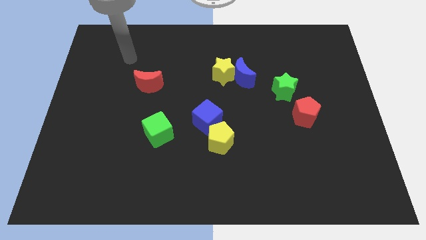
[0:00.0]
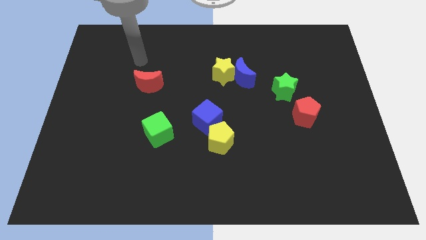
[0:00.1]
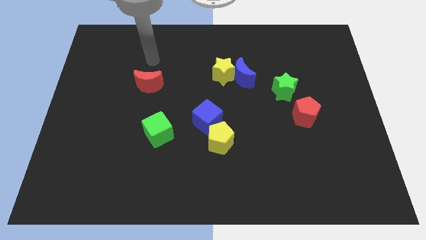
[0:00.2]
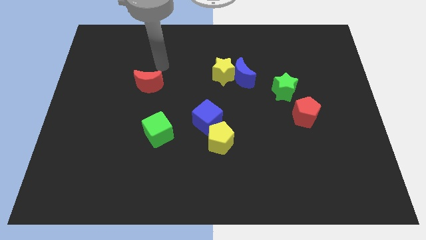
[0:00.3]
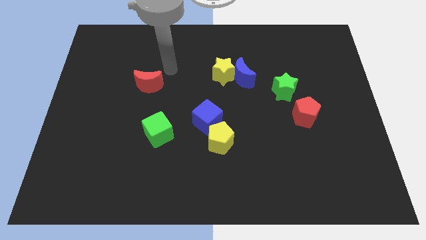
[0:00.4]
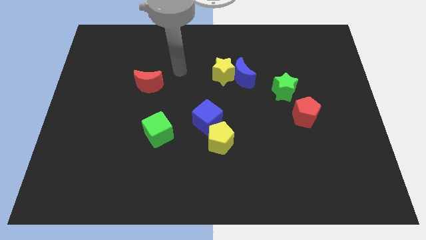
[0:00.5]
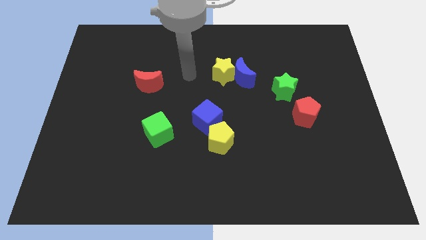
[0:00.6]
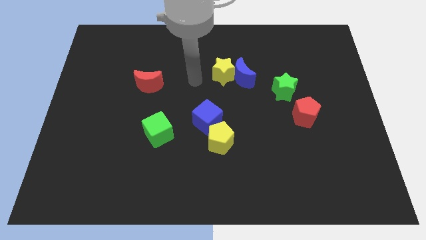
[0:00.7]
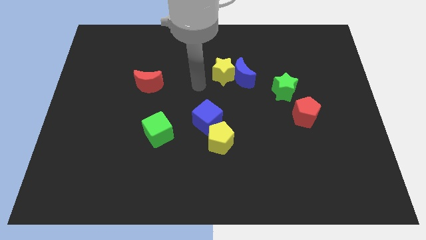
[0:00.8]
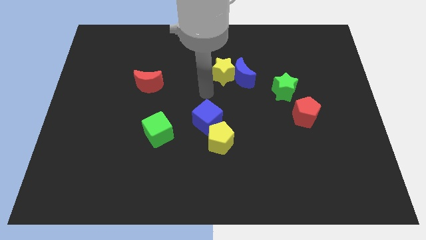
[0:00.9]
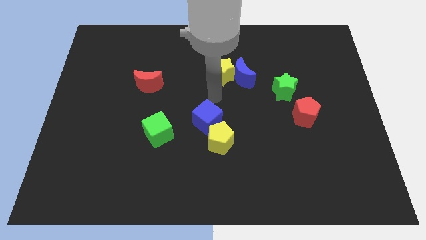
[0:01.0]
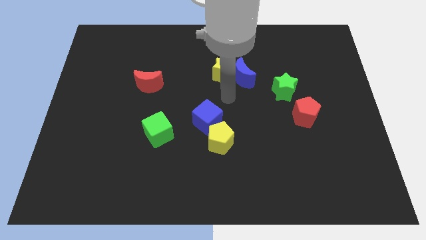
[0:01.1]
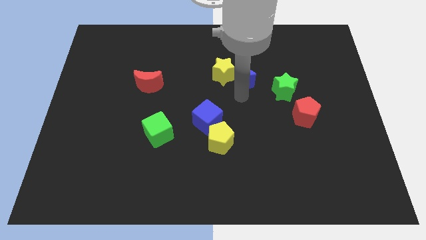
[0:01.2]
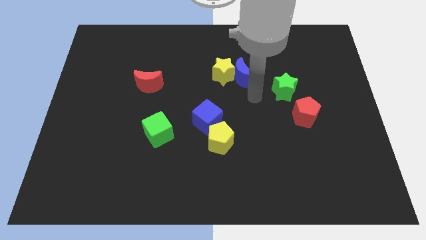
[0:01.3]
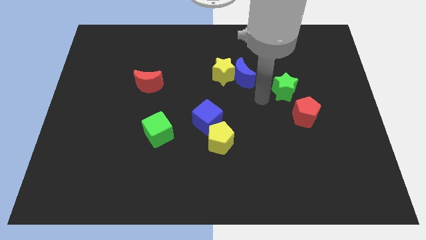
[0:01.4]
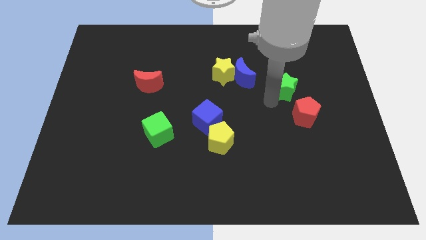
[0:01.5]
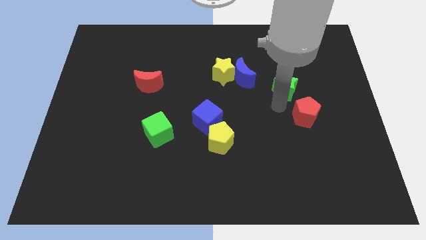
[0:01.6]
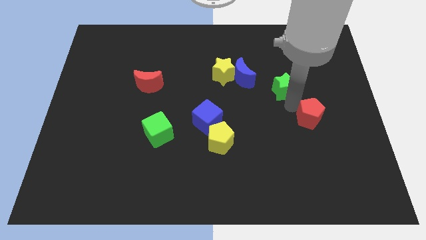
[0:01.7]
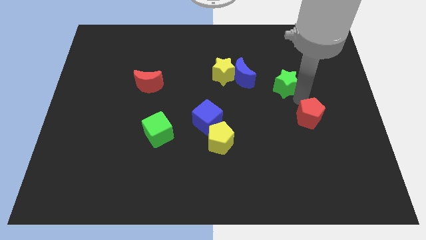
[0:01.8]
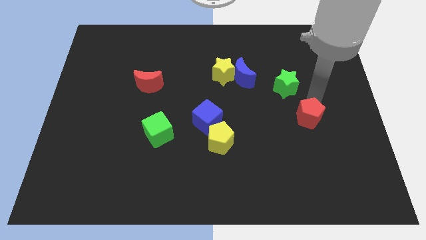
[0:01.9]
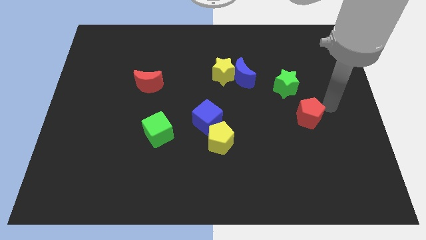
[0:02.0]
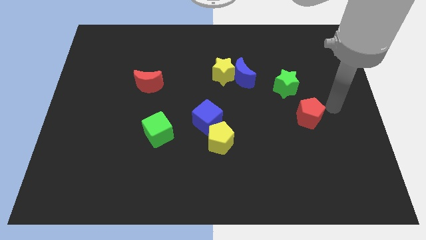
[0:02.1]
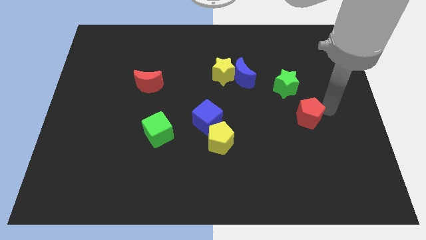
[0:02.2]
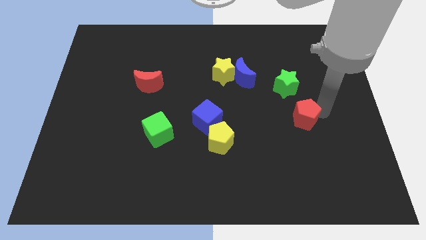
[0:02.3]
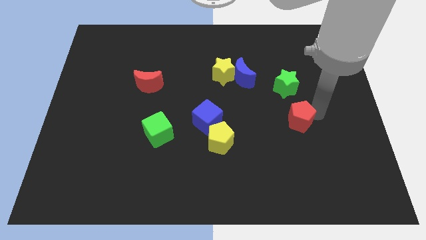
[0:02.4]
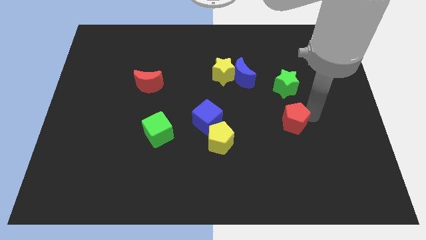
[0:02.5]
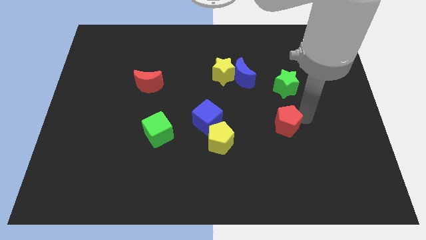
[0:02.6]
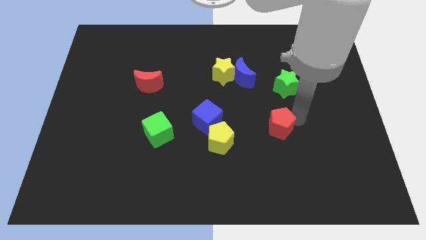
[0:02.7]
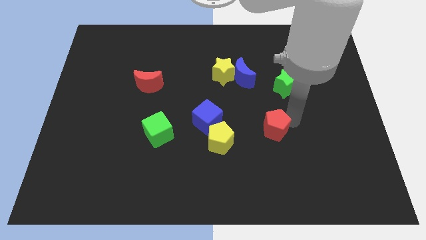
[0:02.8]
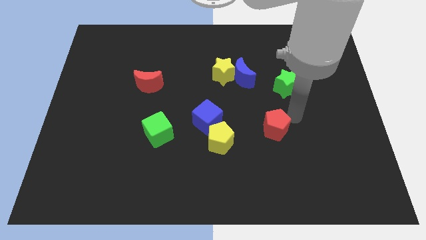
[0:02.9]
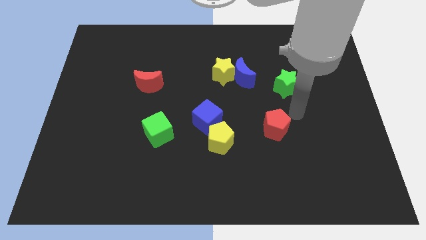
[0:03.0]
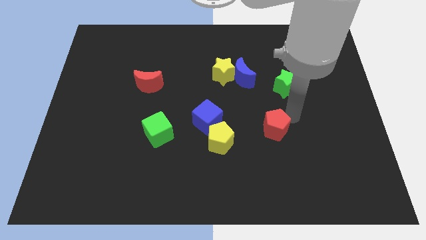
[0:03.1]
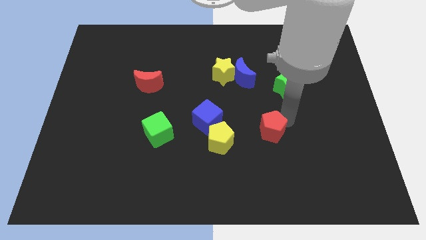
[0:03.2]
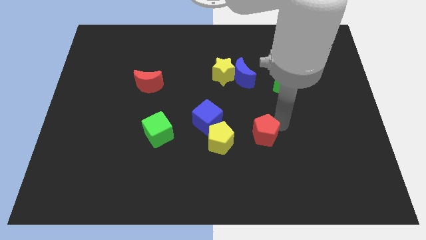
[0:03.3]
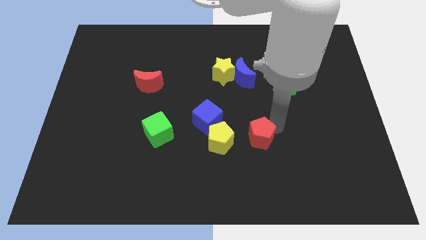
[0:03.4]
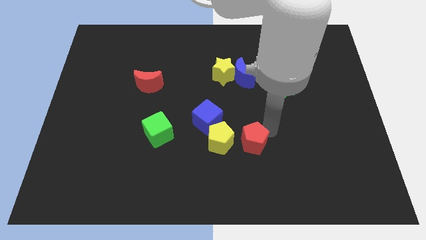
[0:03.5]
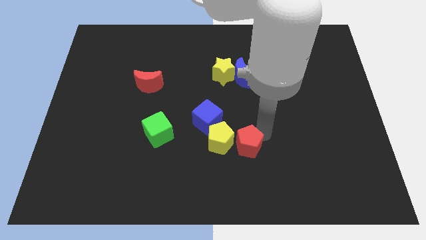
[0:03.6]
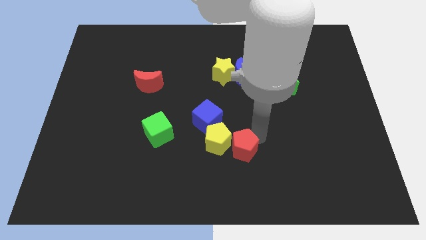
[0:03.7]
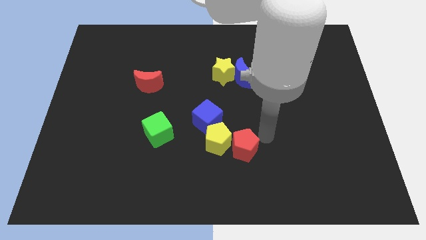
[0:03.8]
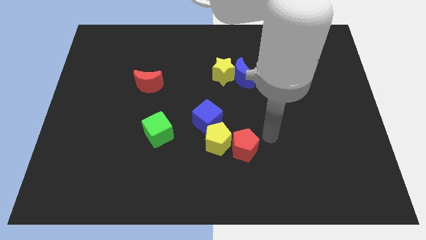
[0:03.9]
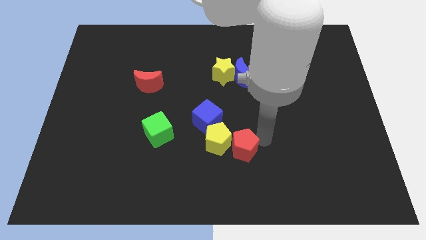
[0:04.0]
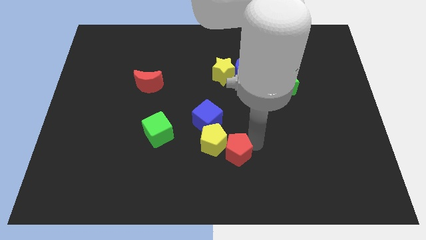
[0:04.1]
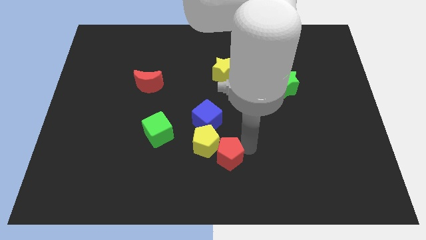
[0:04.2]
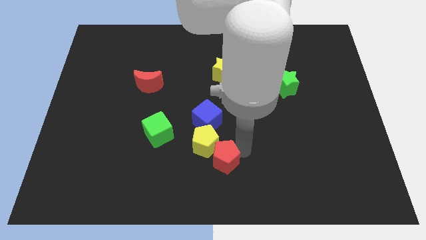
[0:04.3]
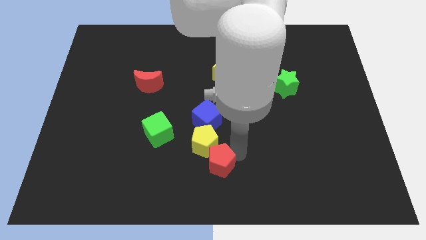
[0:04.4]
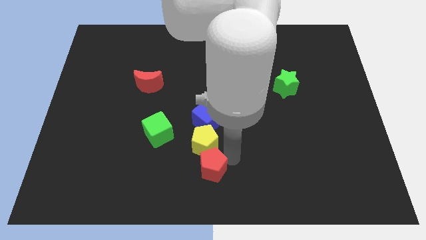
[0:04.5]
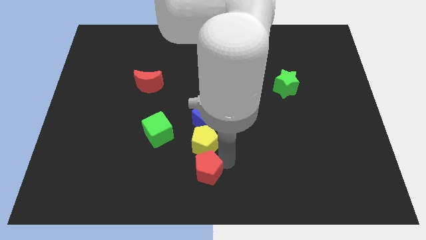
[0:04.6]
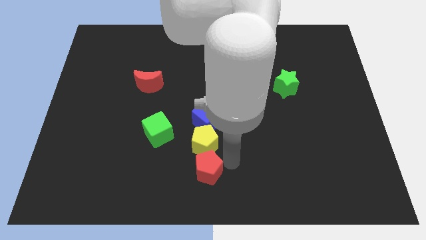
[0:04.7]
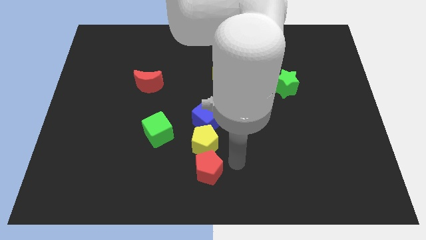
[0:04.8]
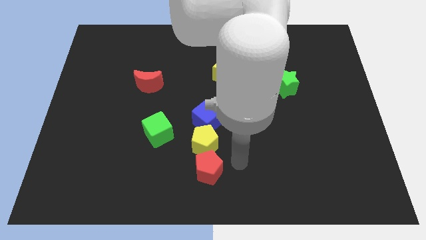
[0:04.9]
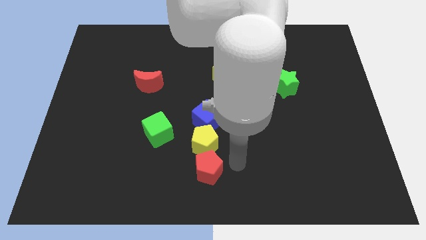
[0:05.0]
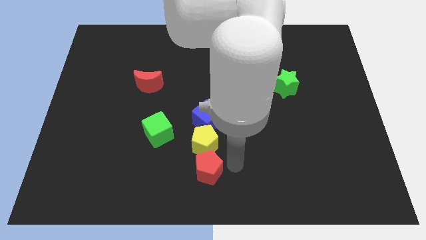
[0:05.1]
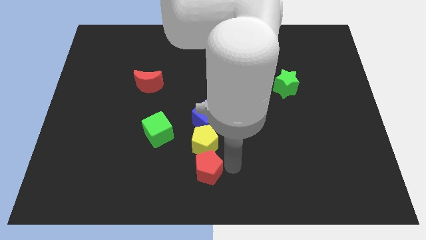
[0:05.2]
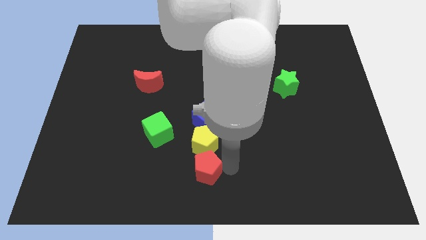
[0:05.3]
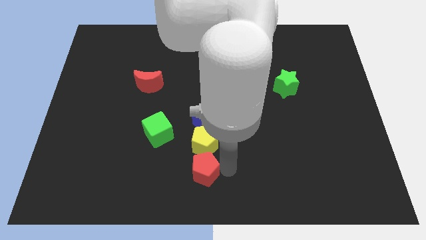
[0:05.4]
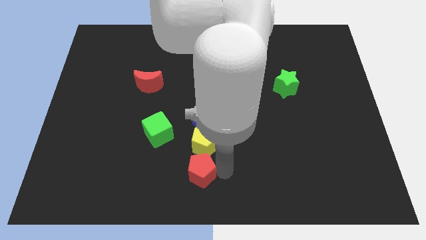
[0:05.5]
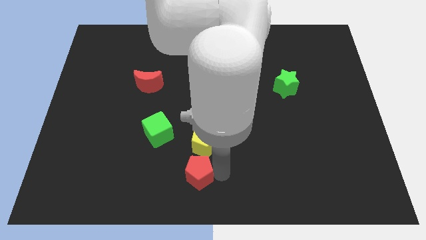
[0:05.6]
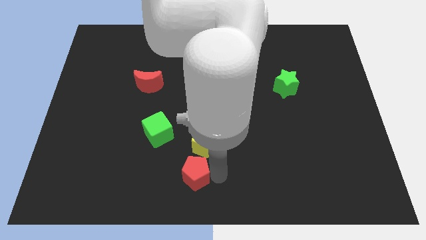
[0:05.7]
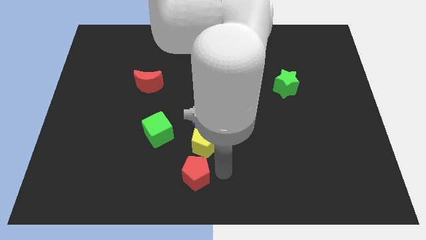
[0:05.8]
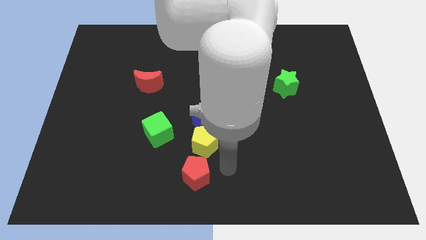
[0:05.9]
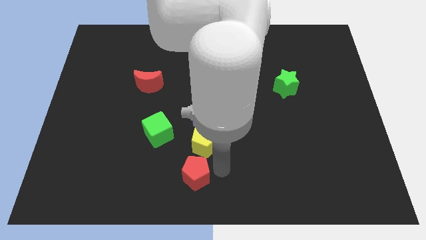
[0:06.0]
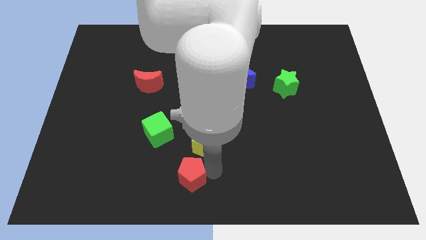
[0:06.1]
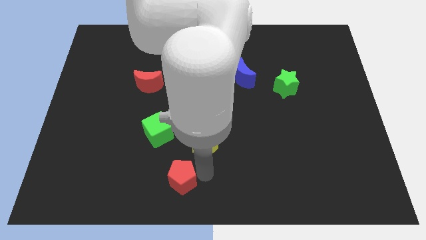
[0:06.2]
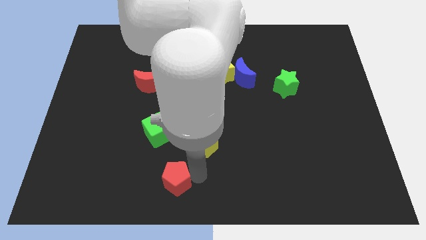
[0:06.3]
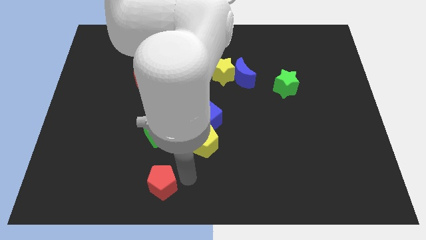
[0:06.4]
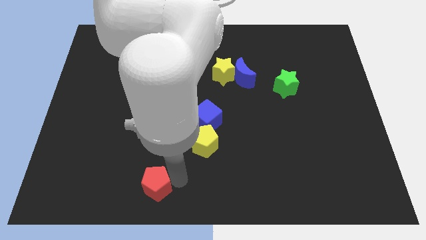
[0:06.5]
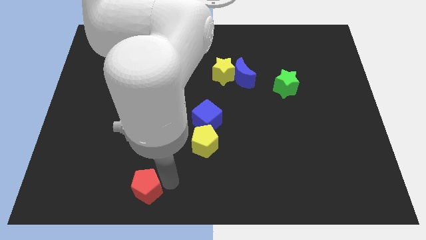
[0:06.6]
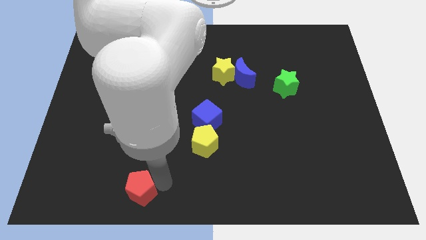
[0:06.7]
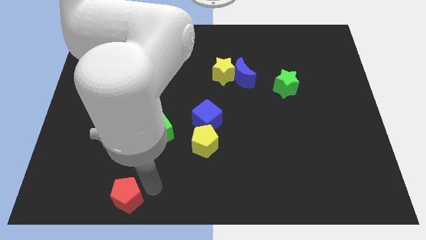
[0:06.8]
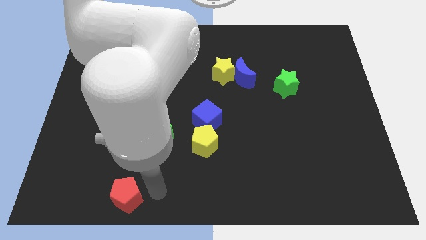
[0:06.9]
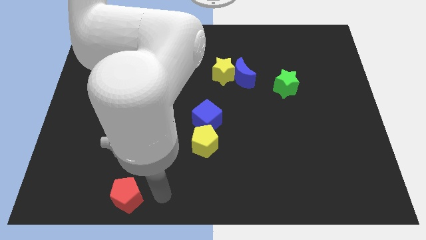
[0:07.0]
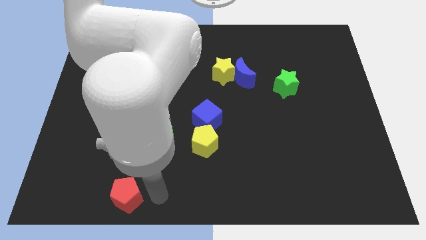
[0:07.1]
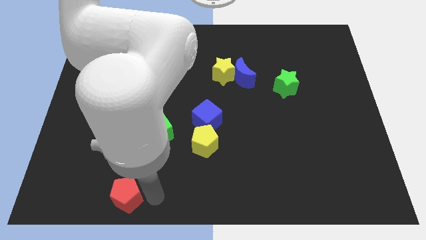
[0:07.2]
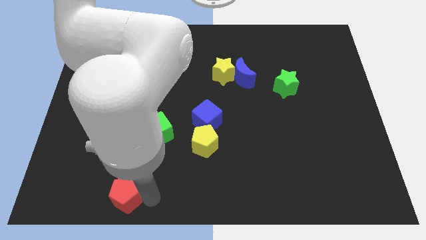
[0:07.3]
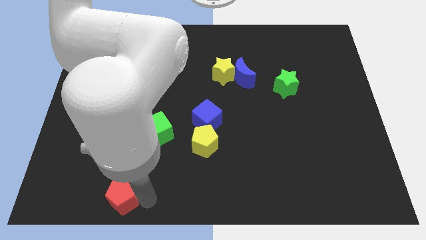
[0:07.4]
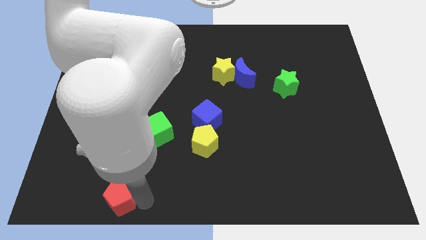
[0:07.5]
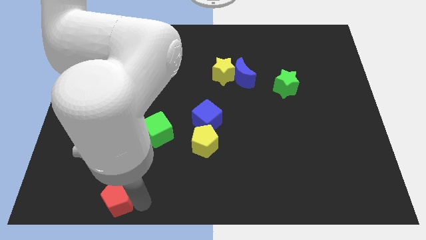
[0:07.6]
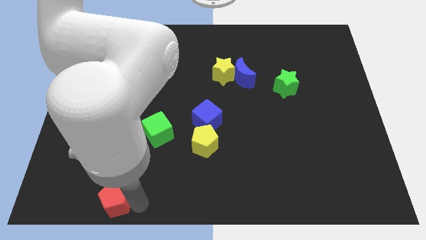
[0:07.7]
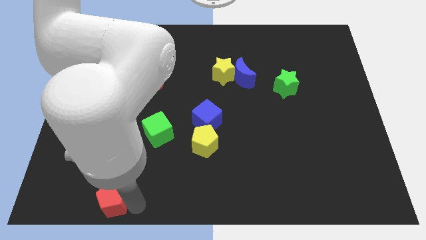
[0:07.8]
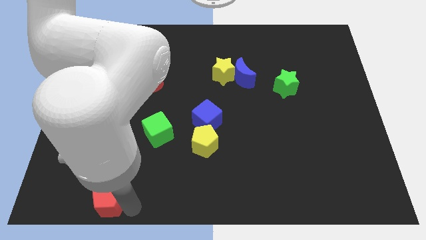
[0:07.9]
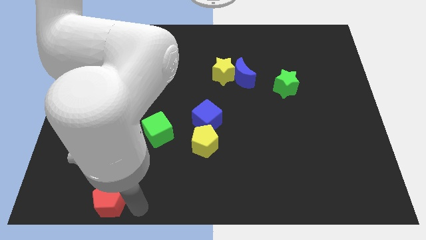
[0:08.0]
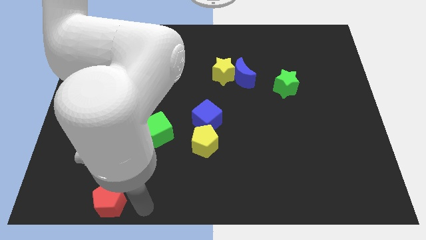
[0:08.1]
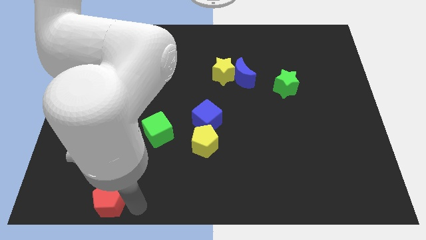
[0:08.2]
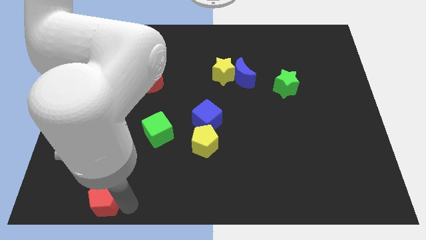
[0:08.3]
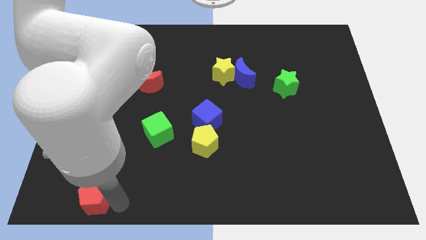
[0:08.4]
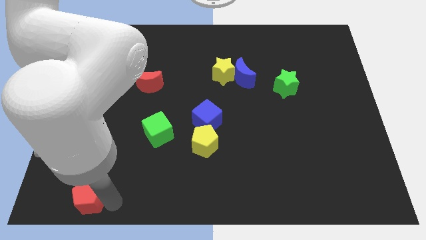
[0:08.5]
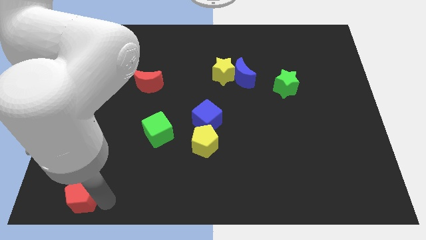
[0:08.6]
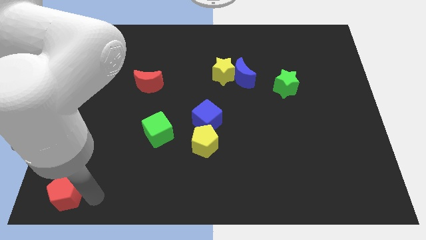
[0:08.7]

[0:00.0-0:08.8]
slide the red pentagon to the bottom left corner
